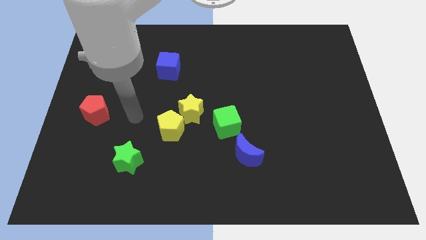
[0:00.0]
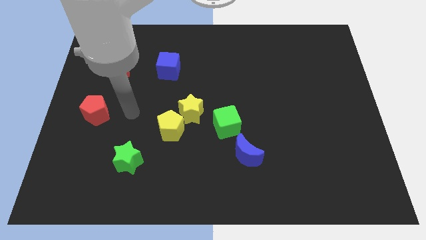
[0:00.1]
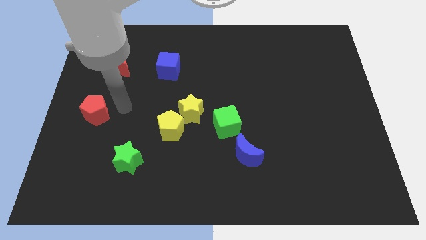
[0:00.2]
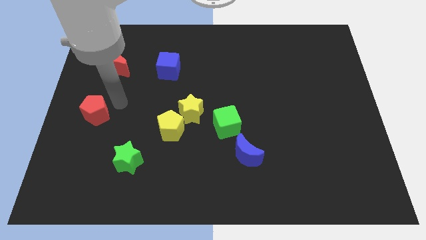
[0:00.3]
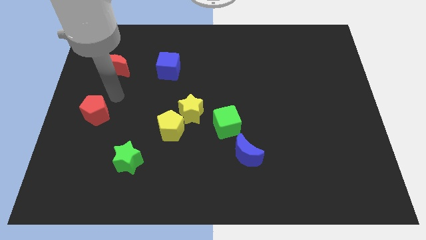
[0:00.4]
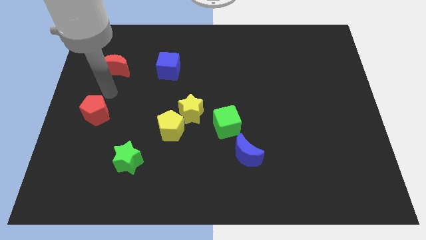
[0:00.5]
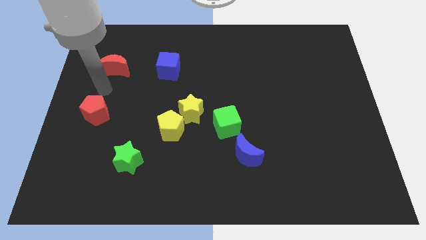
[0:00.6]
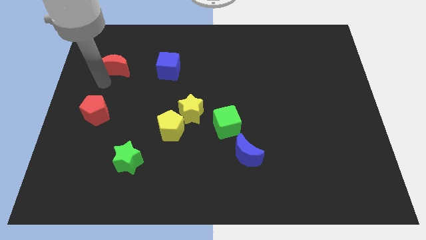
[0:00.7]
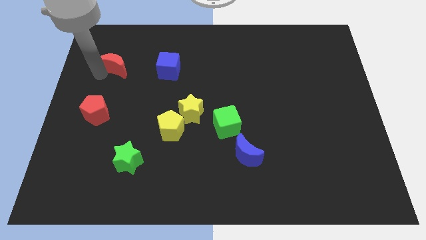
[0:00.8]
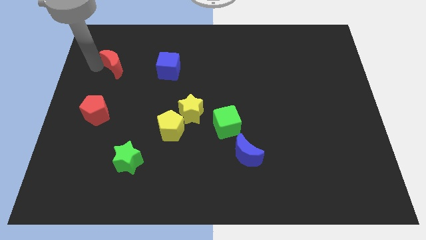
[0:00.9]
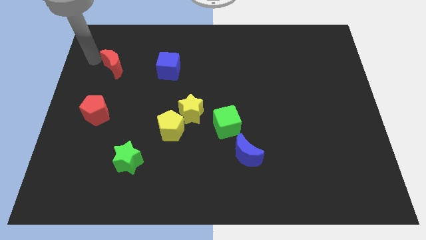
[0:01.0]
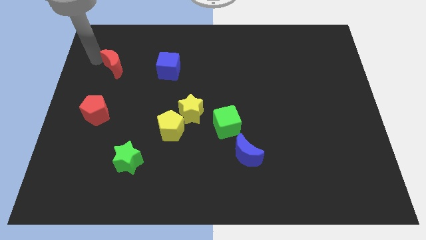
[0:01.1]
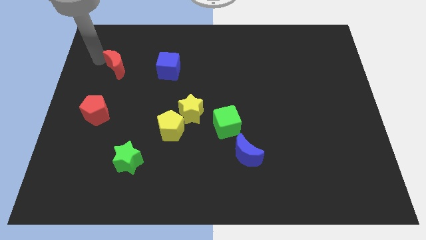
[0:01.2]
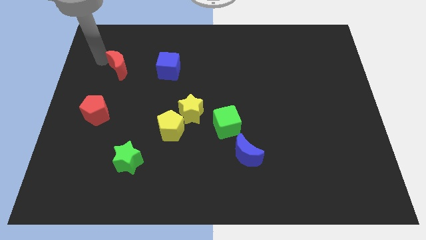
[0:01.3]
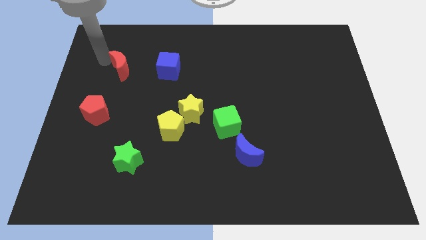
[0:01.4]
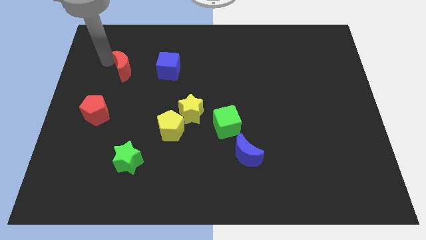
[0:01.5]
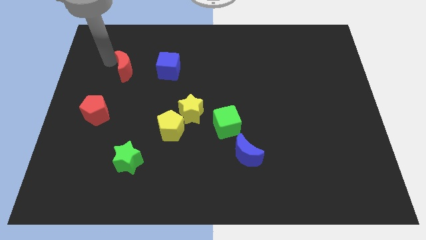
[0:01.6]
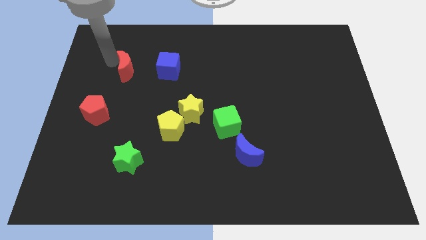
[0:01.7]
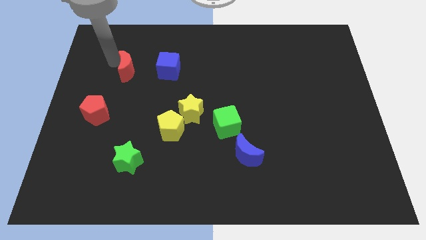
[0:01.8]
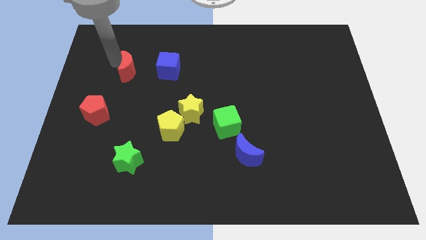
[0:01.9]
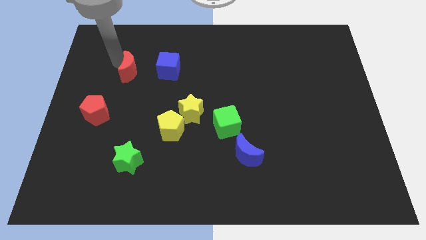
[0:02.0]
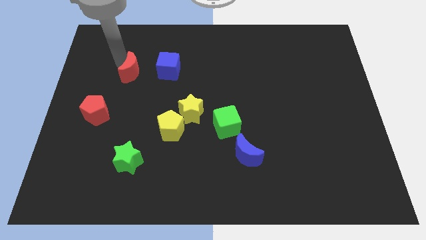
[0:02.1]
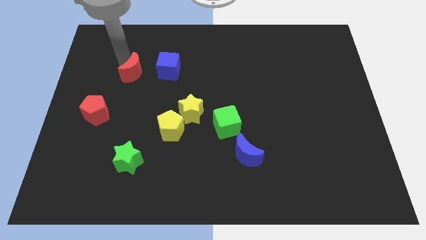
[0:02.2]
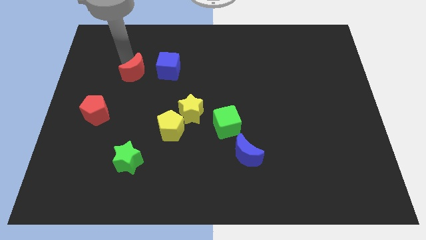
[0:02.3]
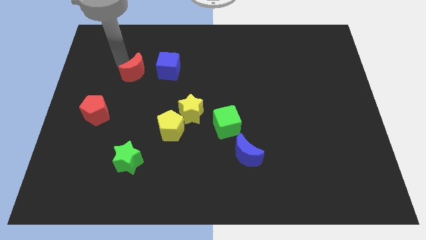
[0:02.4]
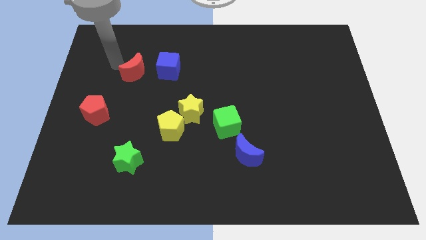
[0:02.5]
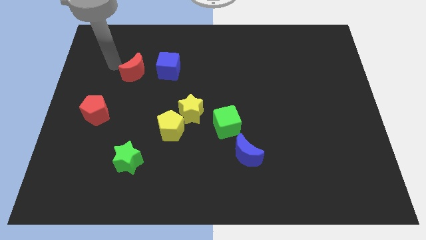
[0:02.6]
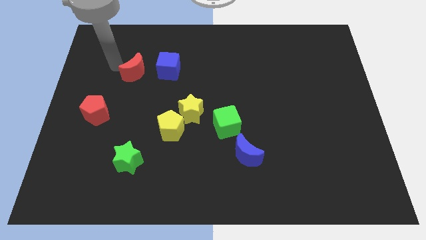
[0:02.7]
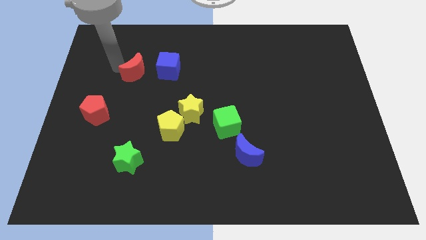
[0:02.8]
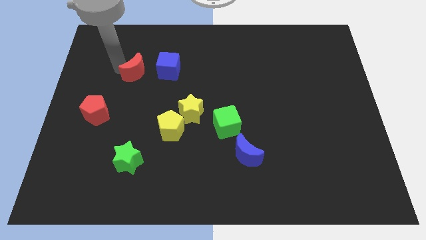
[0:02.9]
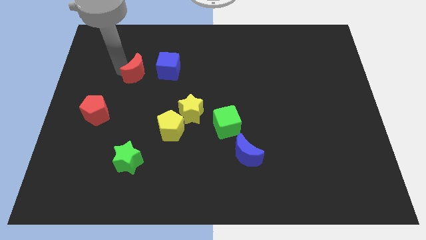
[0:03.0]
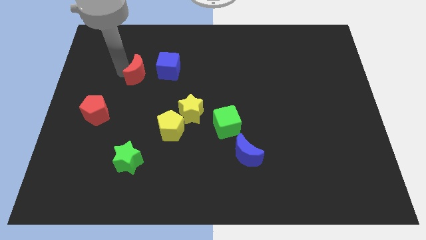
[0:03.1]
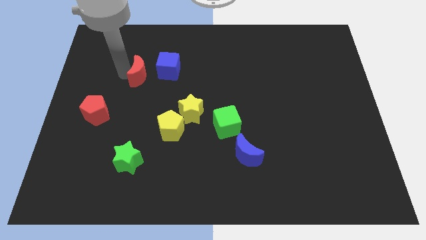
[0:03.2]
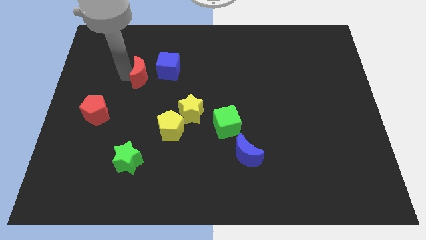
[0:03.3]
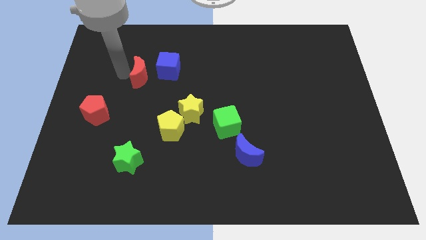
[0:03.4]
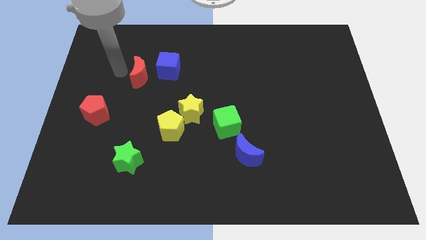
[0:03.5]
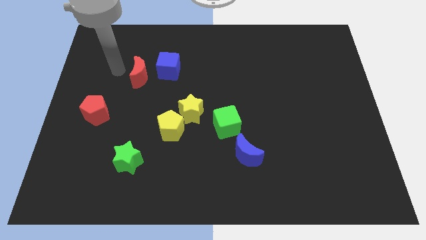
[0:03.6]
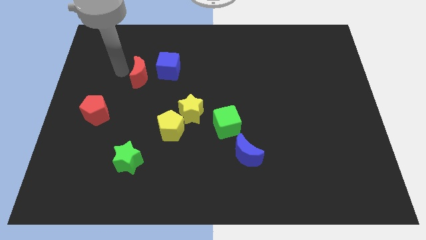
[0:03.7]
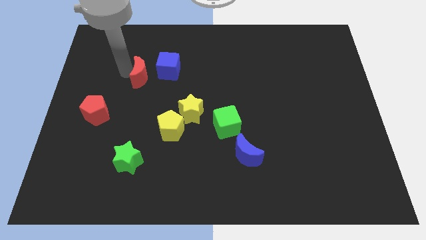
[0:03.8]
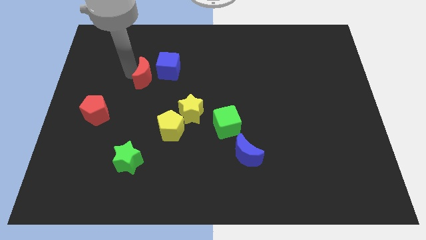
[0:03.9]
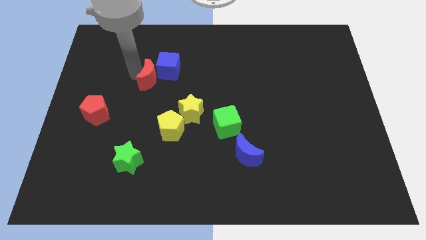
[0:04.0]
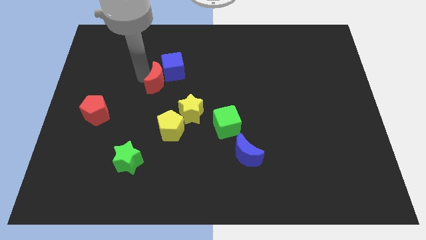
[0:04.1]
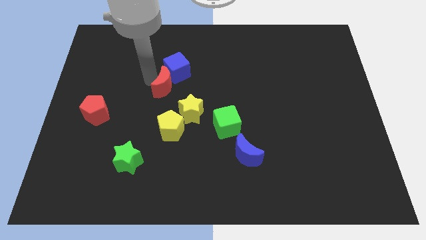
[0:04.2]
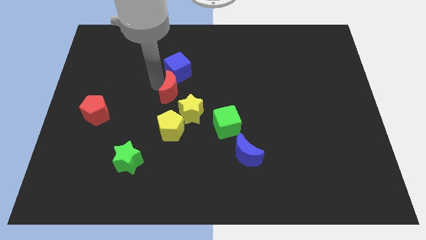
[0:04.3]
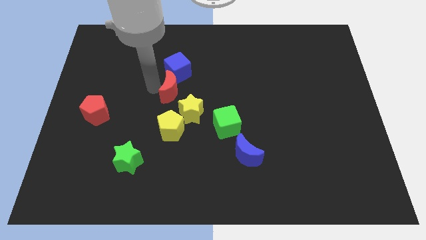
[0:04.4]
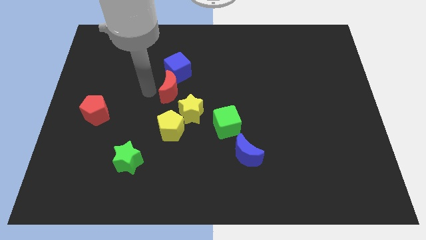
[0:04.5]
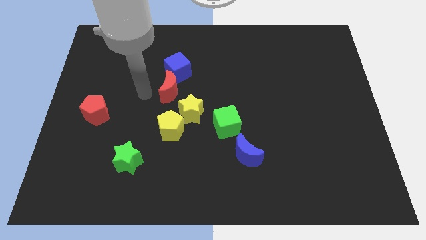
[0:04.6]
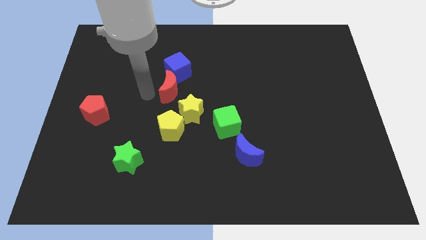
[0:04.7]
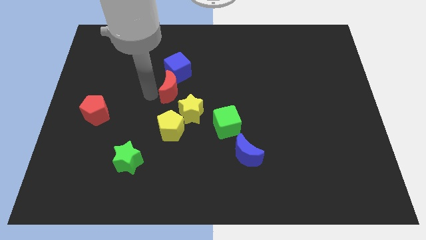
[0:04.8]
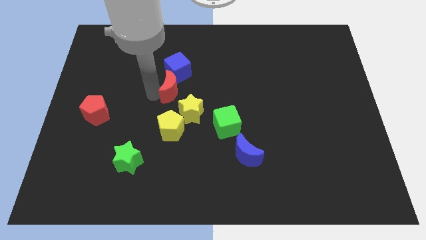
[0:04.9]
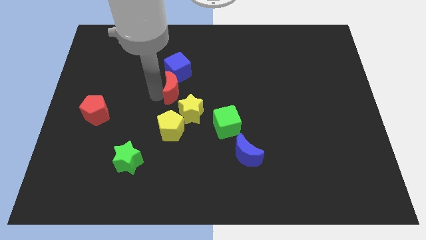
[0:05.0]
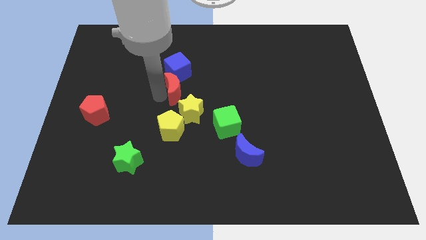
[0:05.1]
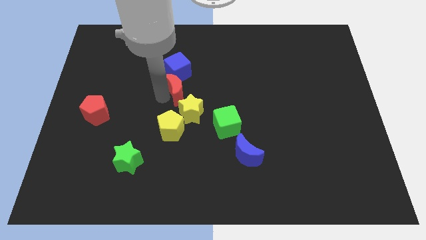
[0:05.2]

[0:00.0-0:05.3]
move the red moon to the bottom right side of the blue cube

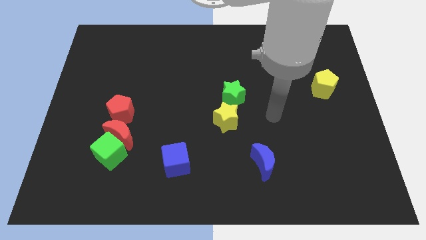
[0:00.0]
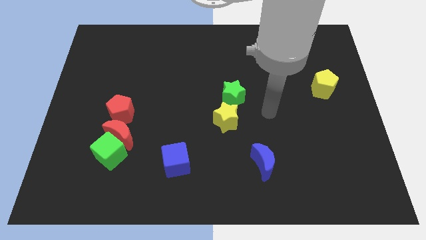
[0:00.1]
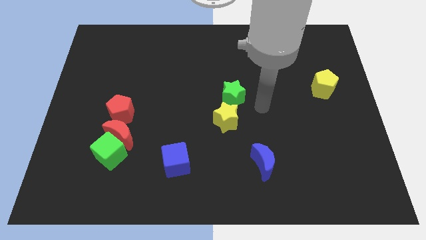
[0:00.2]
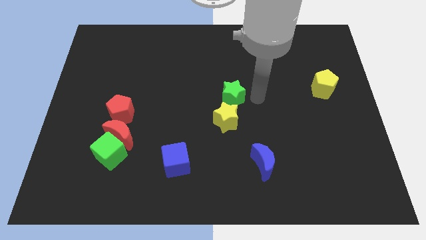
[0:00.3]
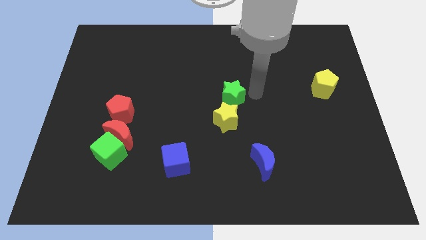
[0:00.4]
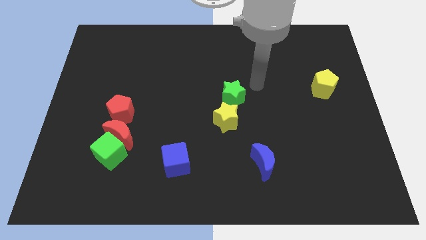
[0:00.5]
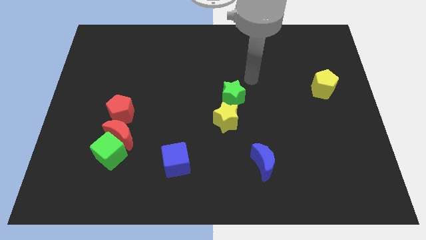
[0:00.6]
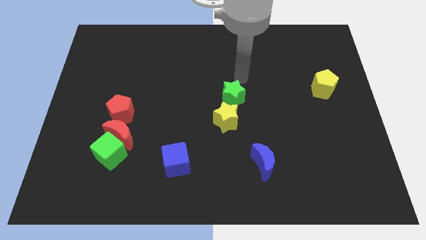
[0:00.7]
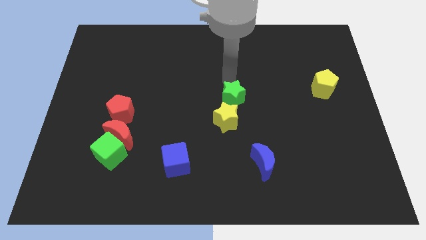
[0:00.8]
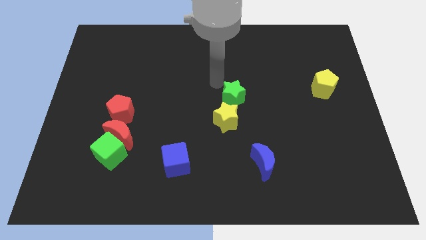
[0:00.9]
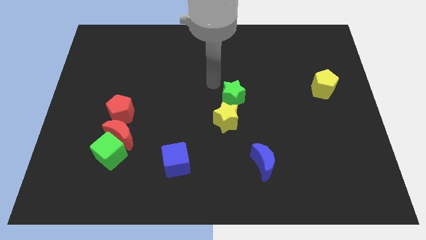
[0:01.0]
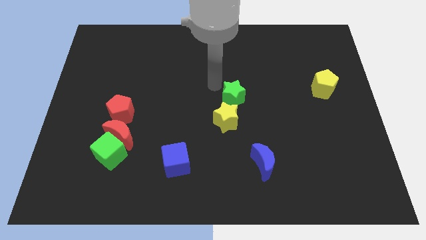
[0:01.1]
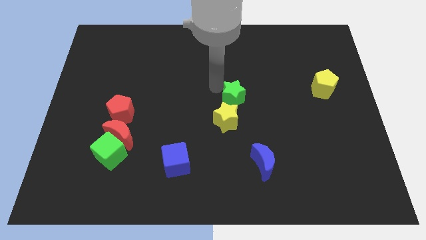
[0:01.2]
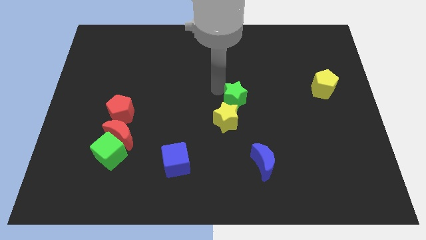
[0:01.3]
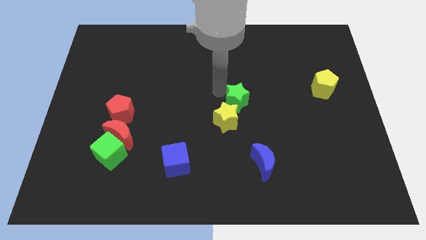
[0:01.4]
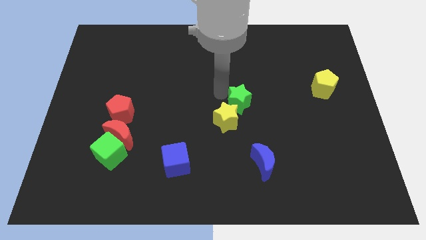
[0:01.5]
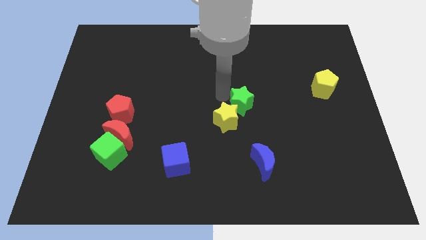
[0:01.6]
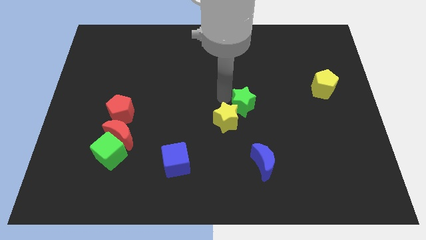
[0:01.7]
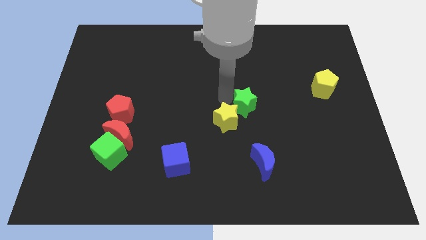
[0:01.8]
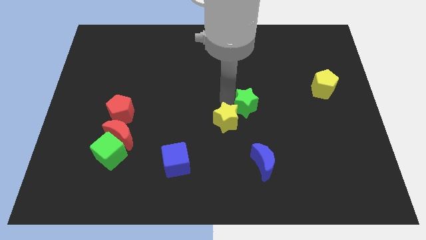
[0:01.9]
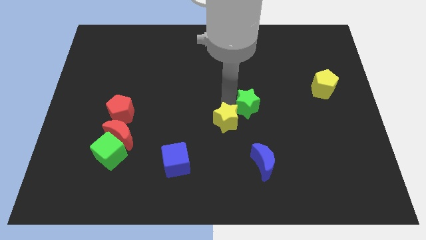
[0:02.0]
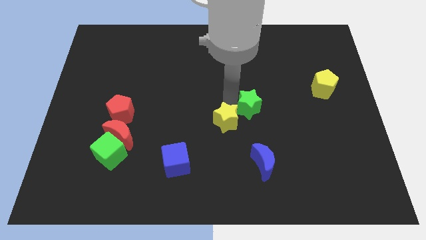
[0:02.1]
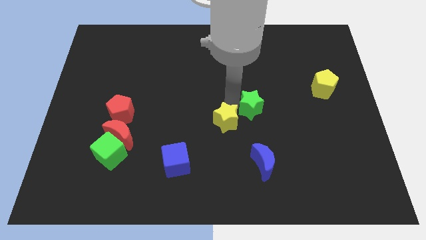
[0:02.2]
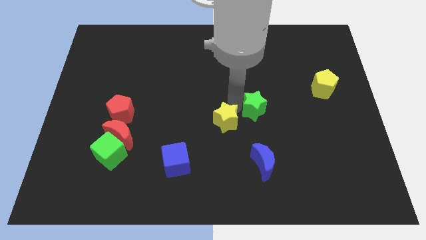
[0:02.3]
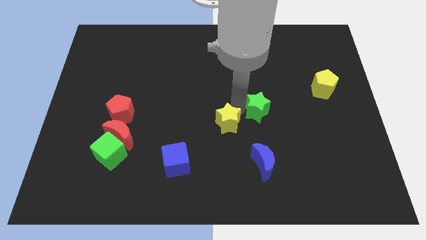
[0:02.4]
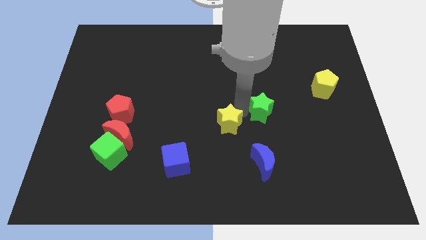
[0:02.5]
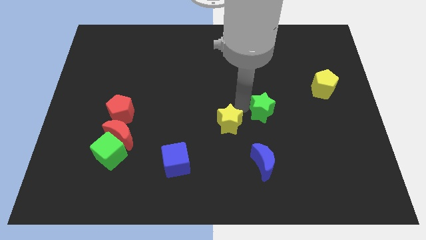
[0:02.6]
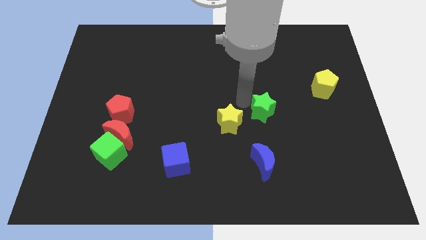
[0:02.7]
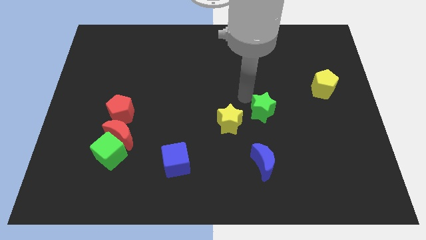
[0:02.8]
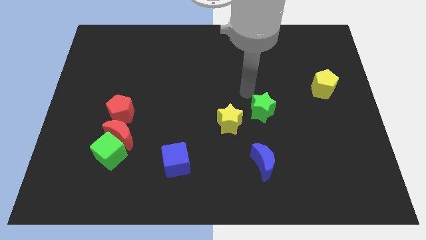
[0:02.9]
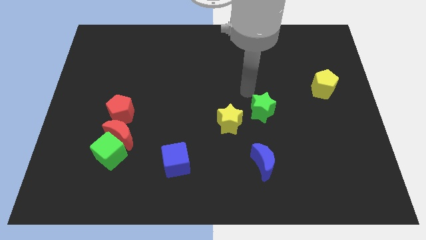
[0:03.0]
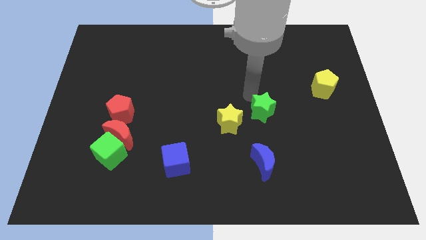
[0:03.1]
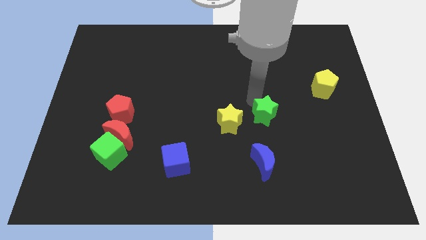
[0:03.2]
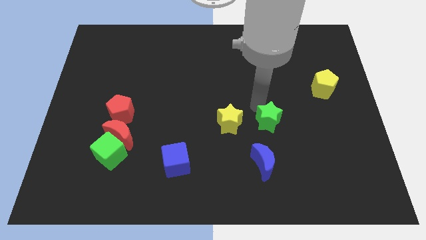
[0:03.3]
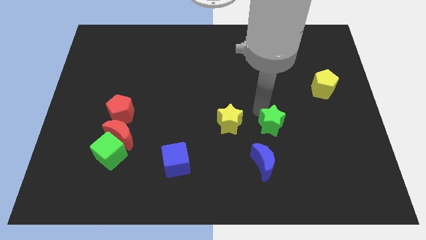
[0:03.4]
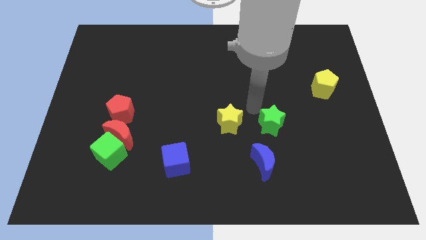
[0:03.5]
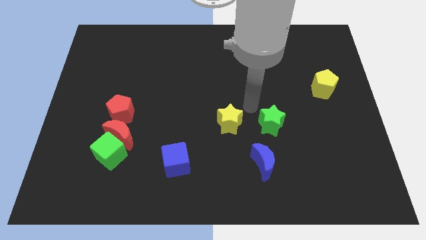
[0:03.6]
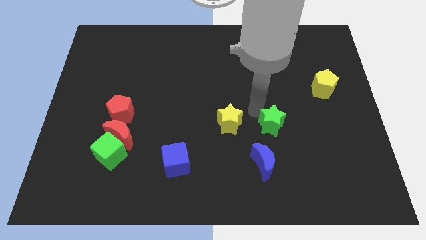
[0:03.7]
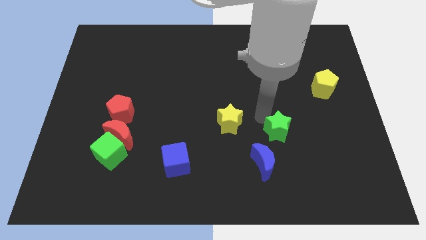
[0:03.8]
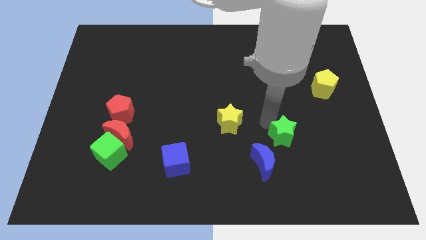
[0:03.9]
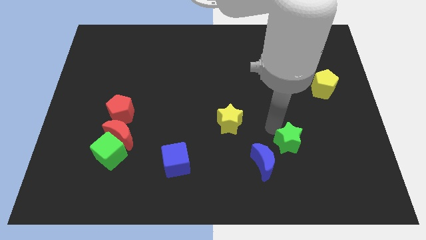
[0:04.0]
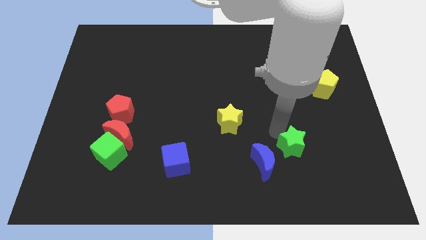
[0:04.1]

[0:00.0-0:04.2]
push the green star right of the blue moon
